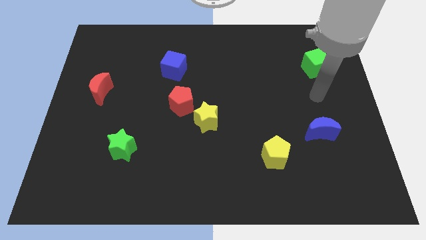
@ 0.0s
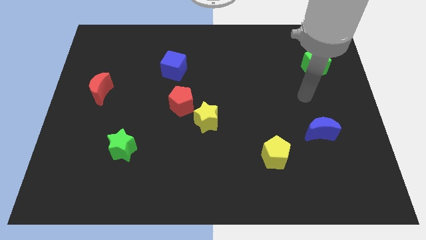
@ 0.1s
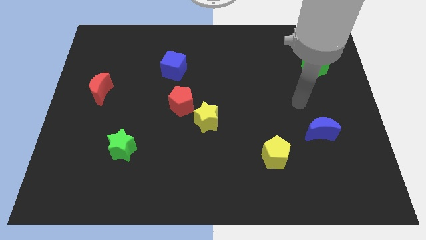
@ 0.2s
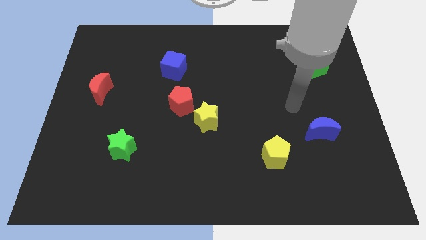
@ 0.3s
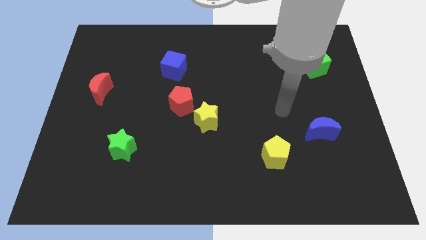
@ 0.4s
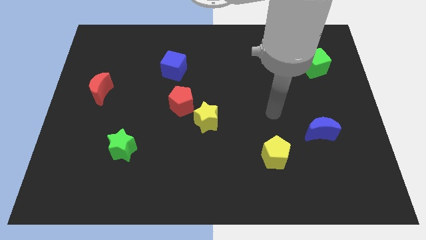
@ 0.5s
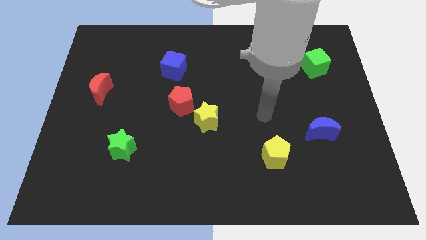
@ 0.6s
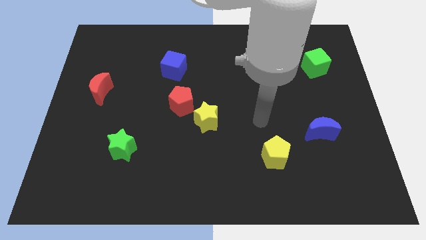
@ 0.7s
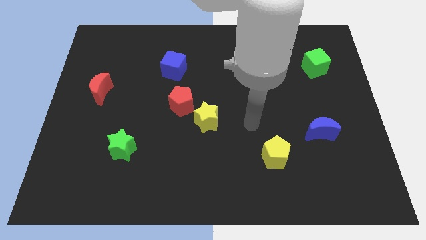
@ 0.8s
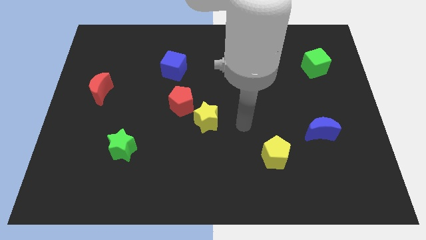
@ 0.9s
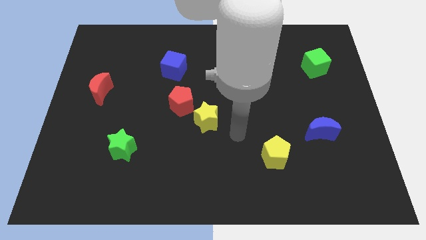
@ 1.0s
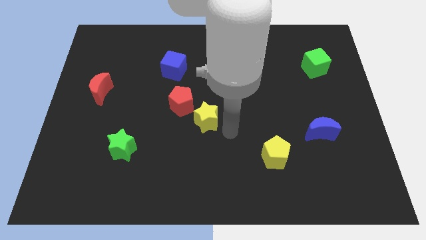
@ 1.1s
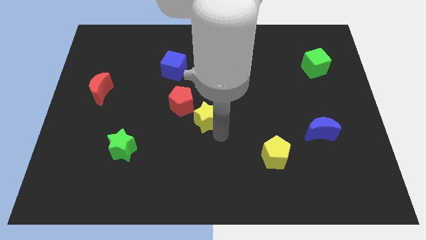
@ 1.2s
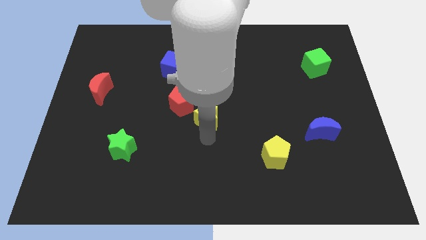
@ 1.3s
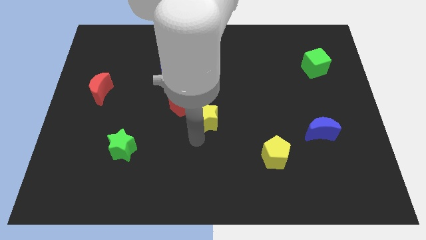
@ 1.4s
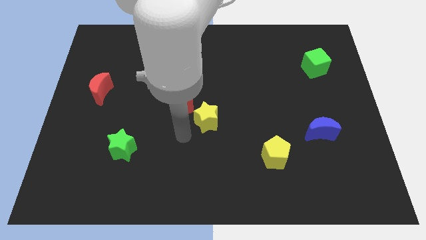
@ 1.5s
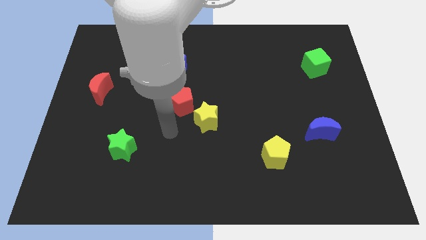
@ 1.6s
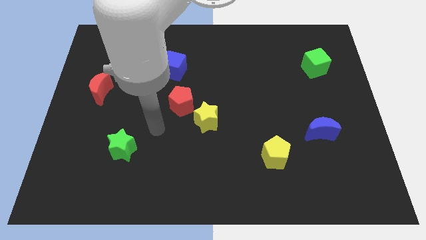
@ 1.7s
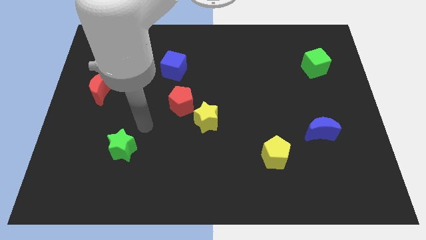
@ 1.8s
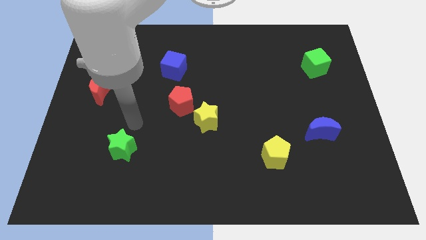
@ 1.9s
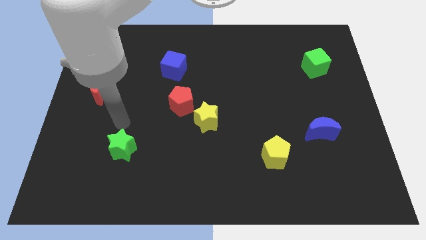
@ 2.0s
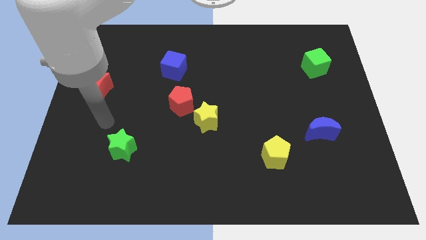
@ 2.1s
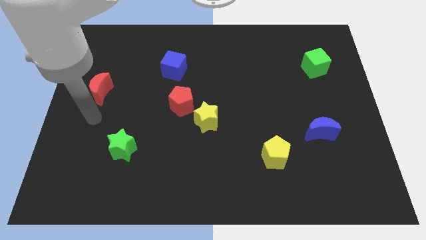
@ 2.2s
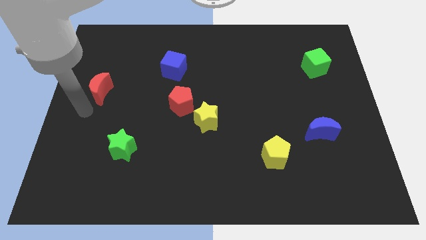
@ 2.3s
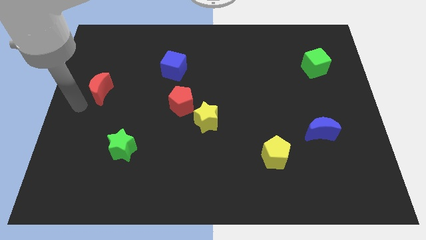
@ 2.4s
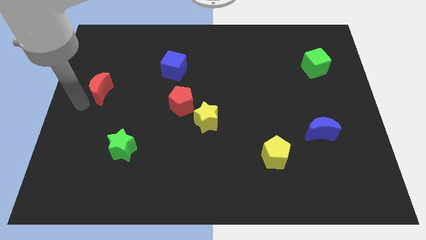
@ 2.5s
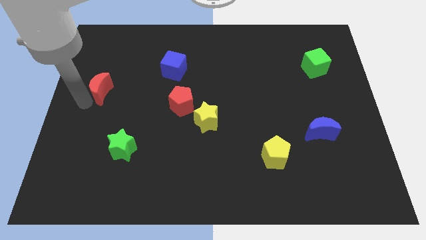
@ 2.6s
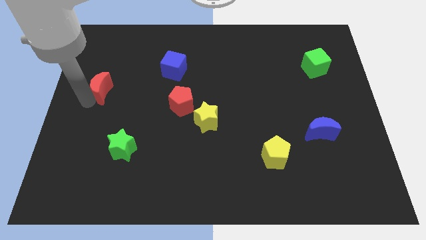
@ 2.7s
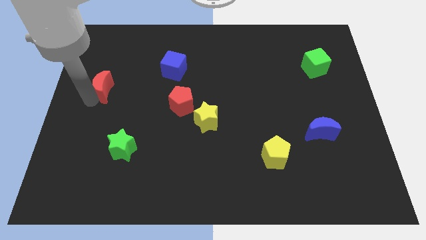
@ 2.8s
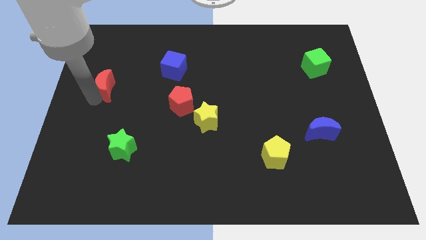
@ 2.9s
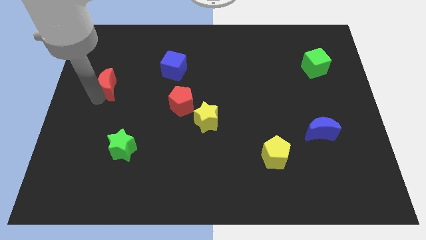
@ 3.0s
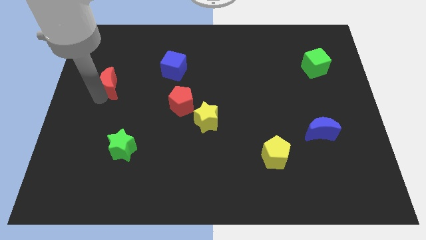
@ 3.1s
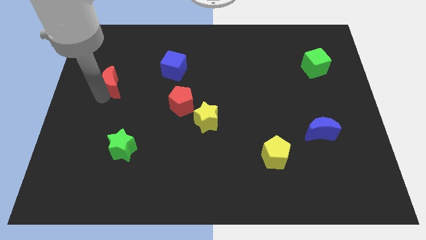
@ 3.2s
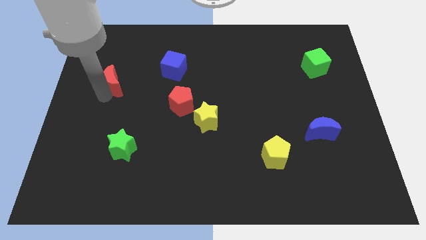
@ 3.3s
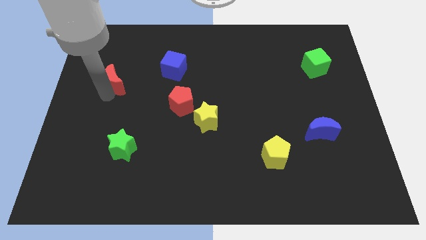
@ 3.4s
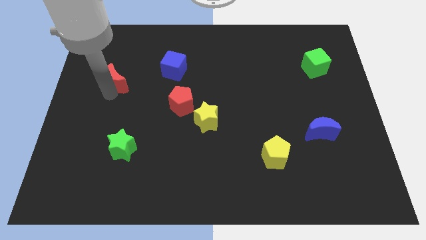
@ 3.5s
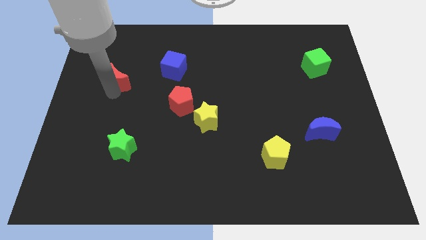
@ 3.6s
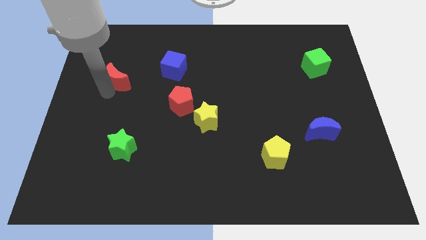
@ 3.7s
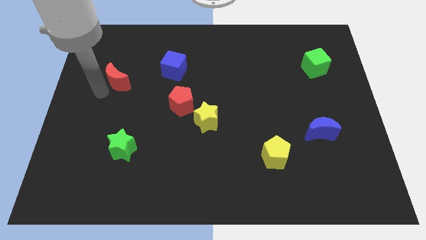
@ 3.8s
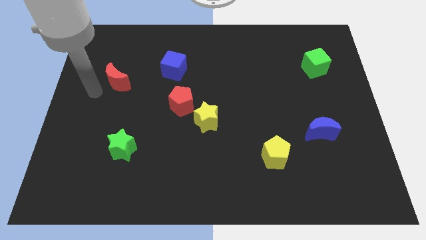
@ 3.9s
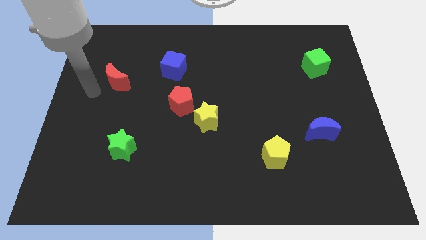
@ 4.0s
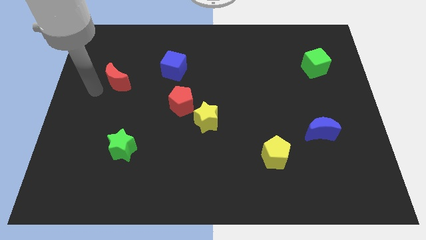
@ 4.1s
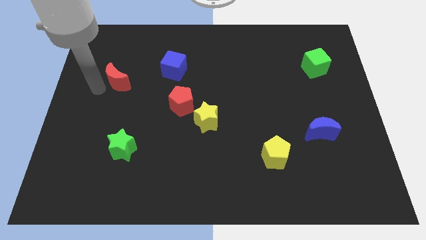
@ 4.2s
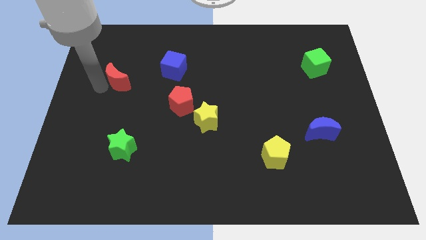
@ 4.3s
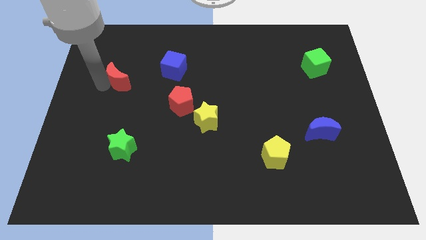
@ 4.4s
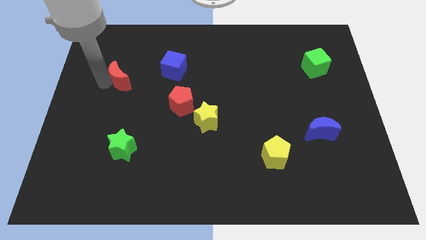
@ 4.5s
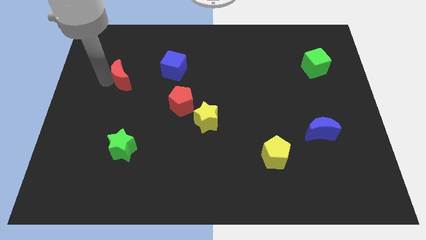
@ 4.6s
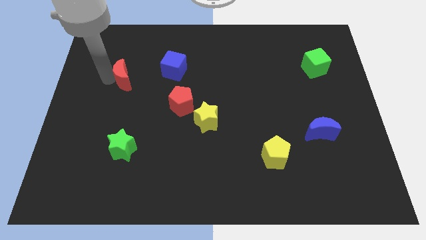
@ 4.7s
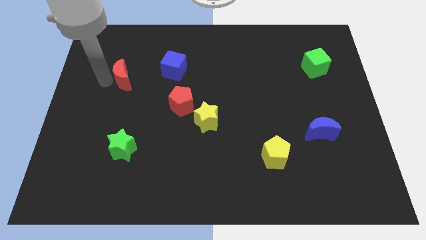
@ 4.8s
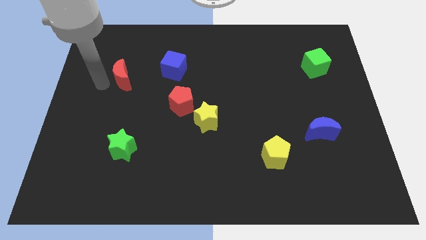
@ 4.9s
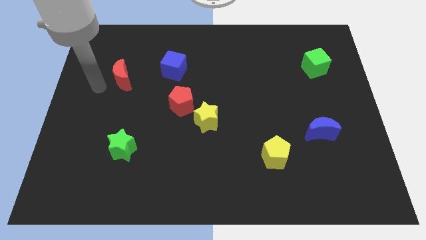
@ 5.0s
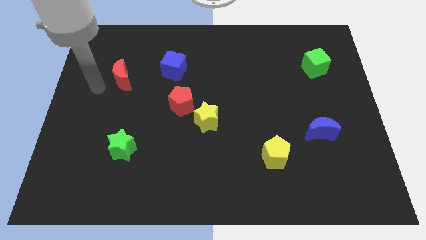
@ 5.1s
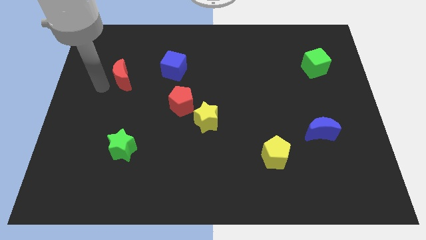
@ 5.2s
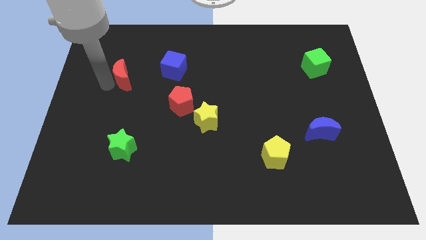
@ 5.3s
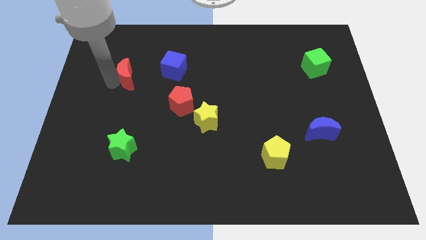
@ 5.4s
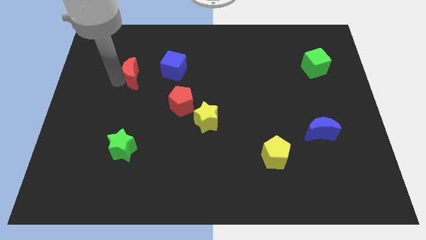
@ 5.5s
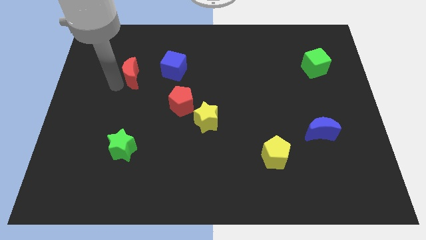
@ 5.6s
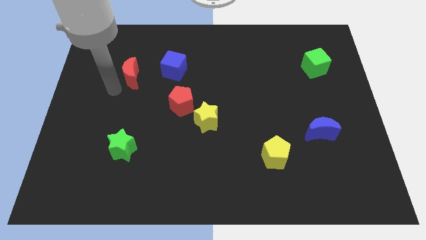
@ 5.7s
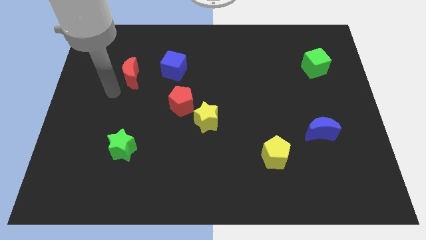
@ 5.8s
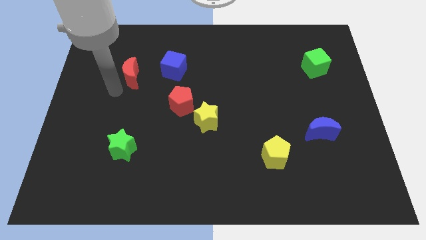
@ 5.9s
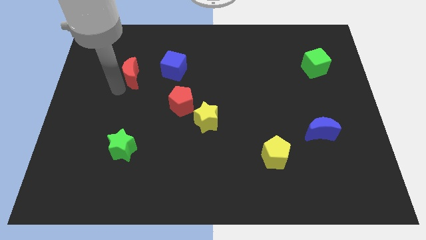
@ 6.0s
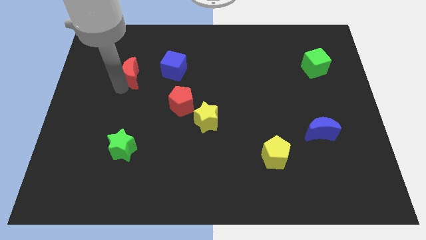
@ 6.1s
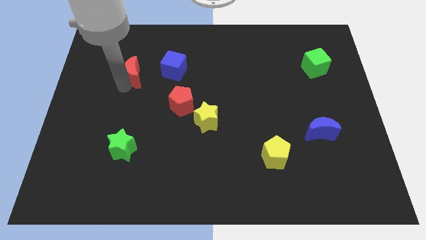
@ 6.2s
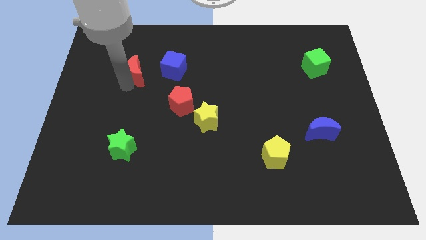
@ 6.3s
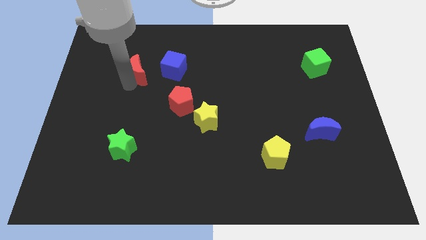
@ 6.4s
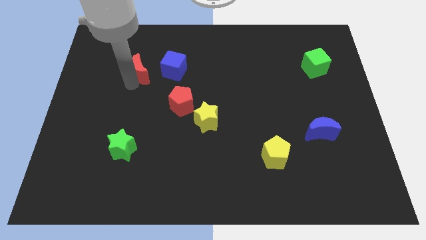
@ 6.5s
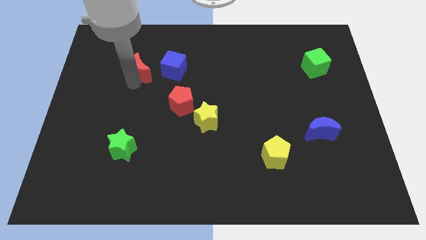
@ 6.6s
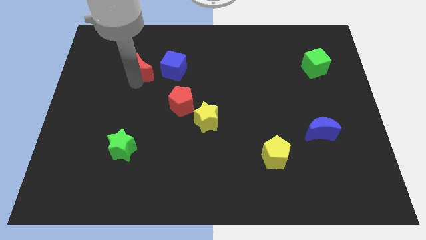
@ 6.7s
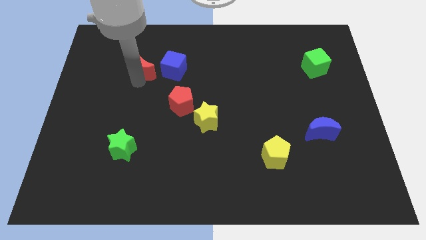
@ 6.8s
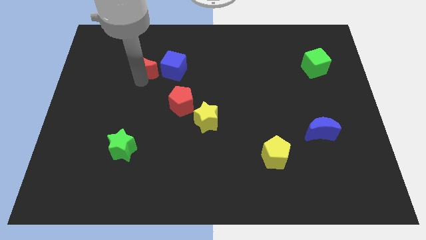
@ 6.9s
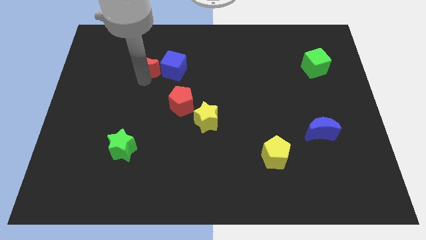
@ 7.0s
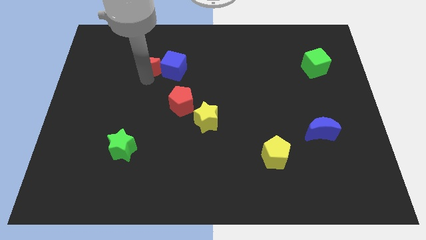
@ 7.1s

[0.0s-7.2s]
move the red moon to the top left of the blue cube
